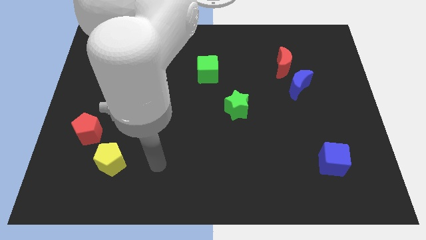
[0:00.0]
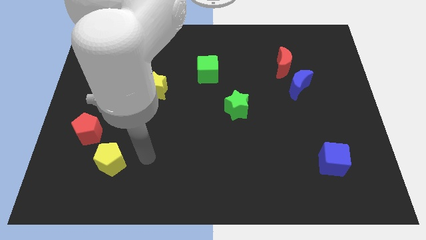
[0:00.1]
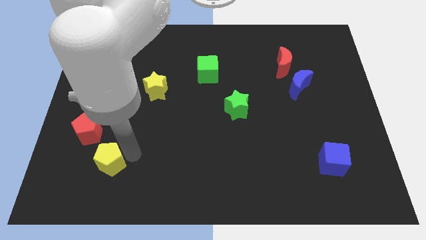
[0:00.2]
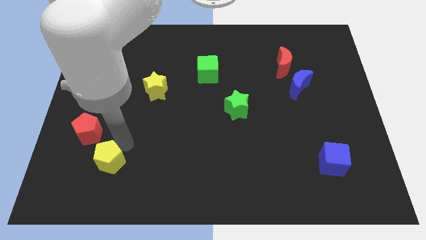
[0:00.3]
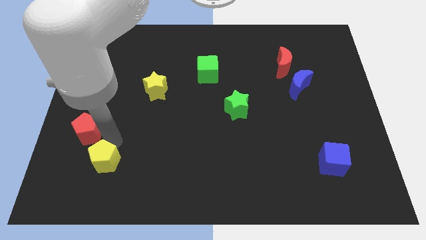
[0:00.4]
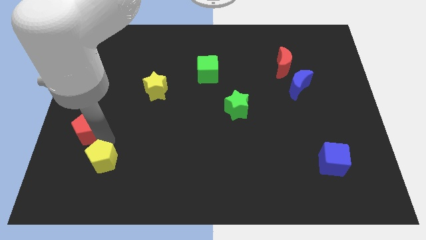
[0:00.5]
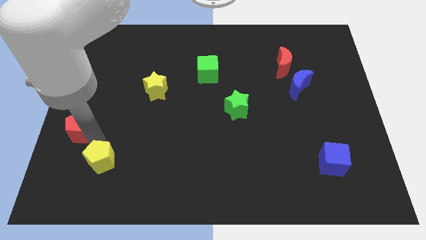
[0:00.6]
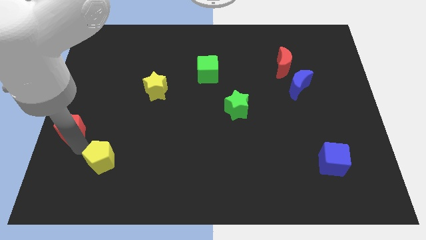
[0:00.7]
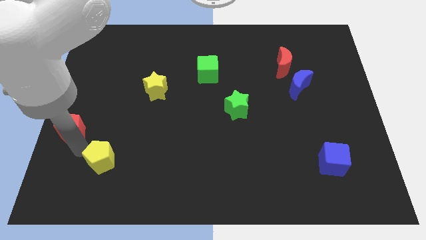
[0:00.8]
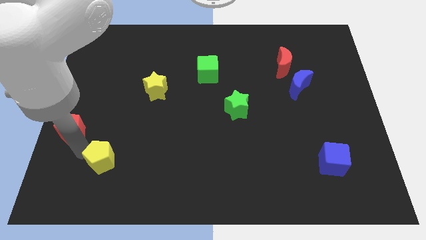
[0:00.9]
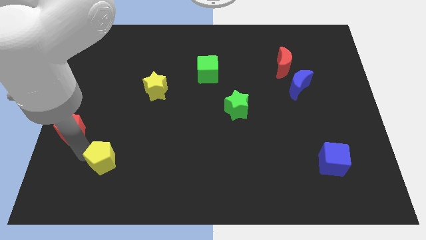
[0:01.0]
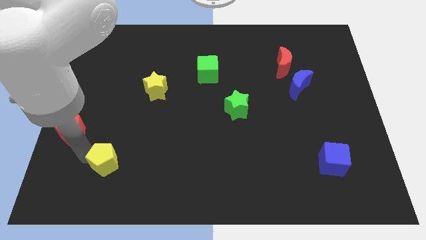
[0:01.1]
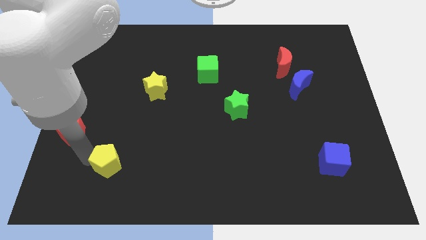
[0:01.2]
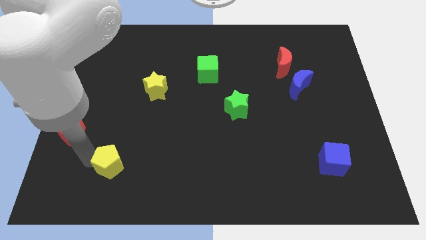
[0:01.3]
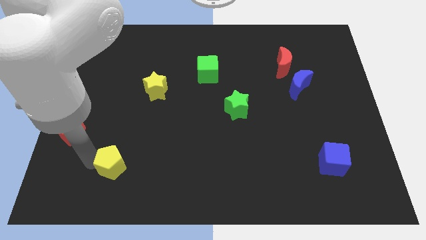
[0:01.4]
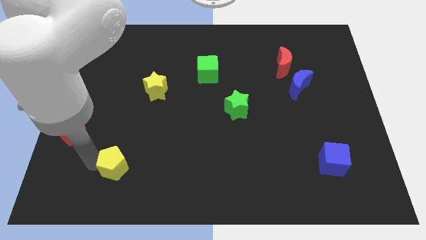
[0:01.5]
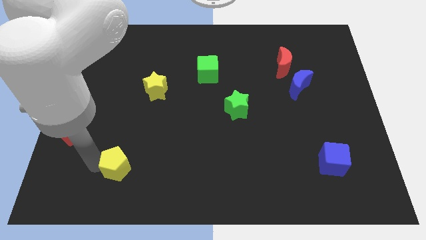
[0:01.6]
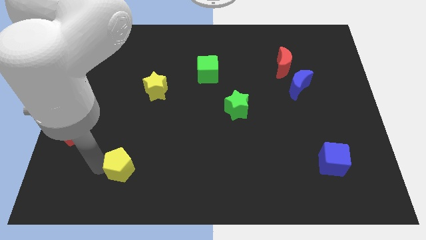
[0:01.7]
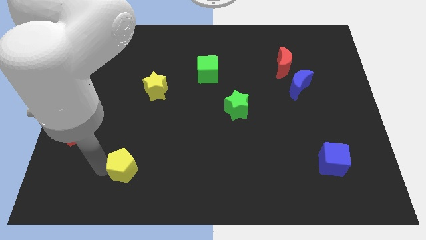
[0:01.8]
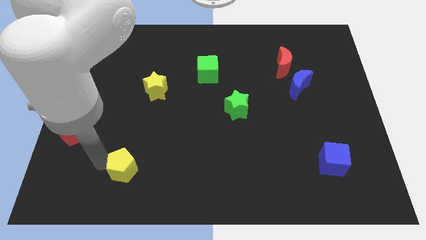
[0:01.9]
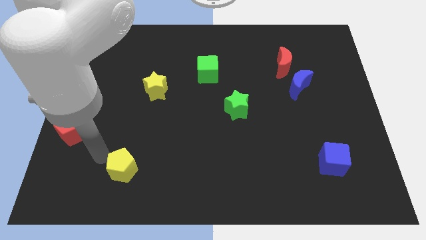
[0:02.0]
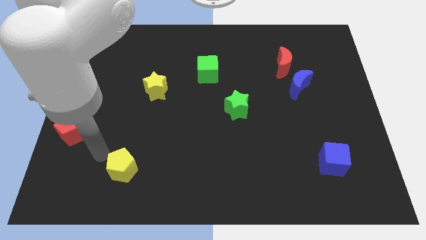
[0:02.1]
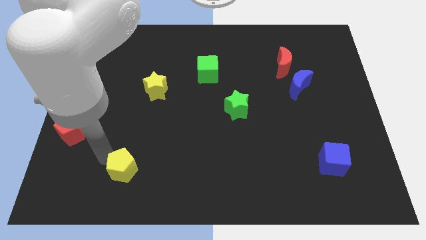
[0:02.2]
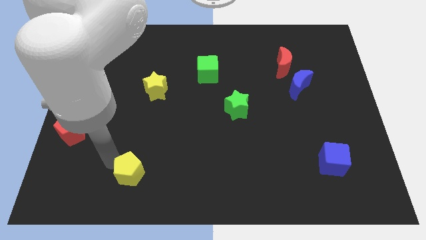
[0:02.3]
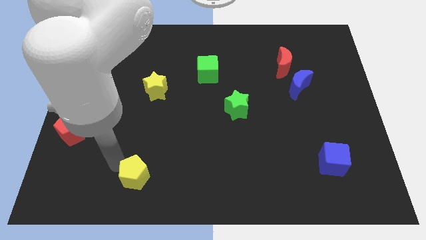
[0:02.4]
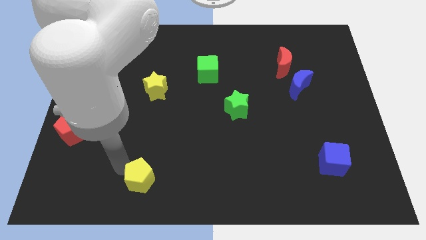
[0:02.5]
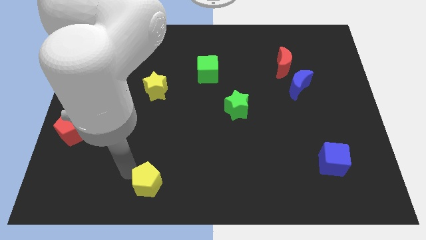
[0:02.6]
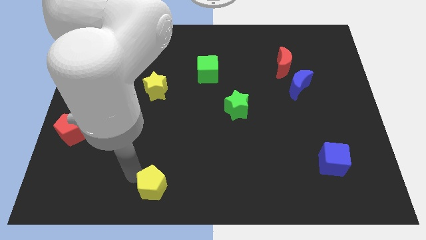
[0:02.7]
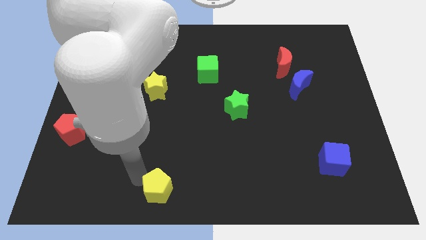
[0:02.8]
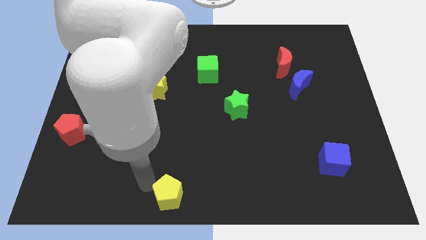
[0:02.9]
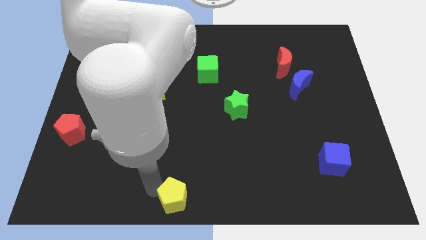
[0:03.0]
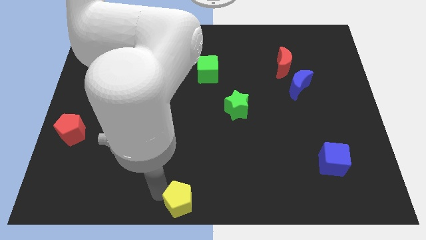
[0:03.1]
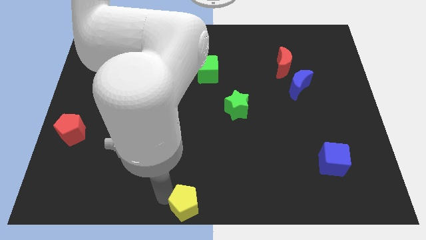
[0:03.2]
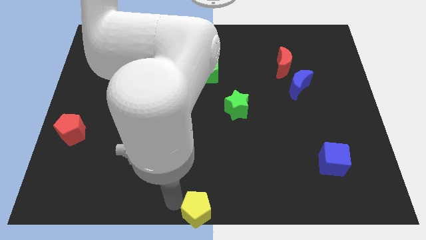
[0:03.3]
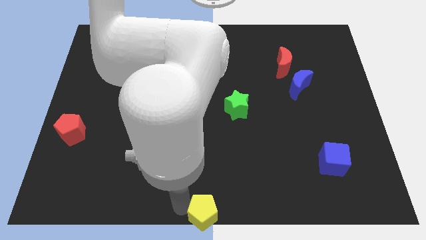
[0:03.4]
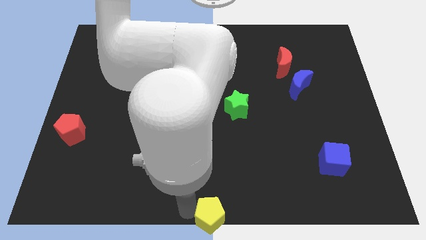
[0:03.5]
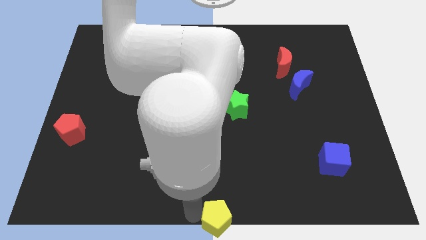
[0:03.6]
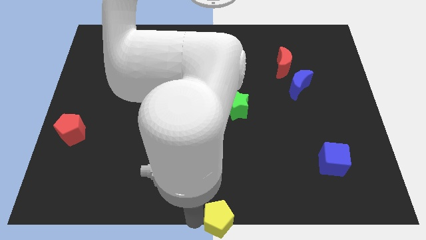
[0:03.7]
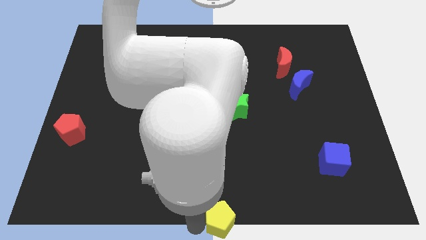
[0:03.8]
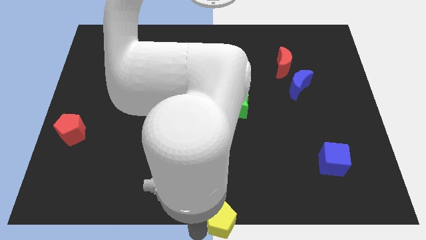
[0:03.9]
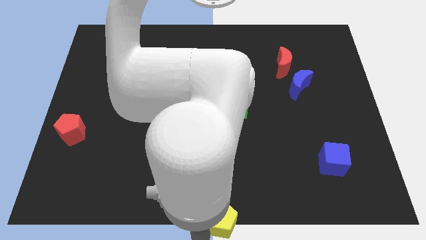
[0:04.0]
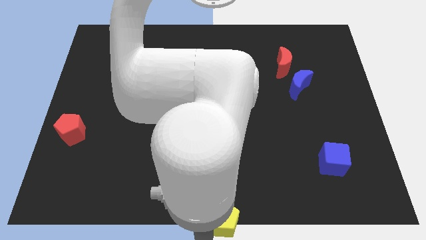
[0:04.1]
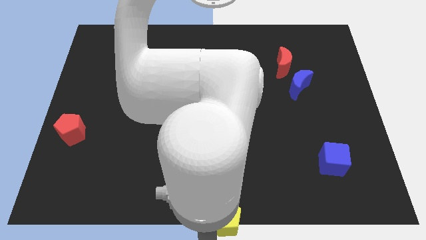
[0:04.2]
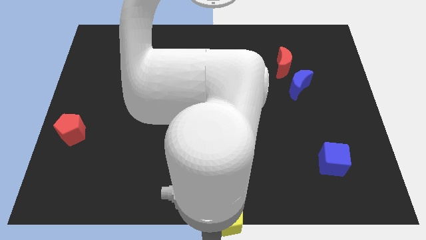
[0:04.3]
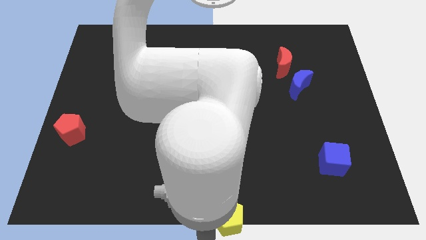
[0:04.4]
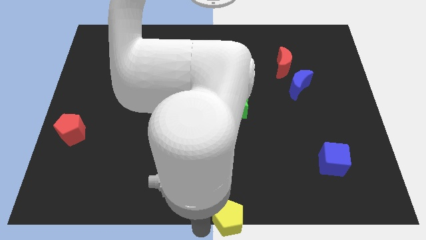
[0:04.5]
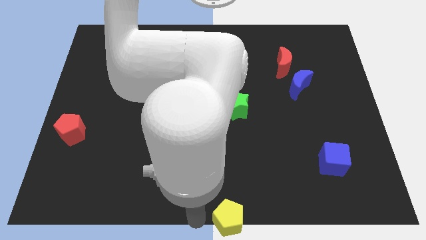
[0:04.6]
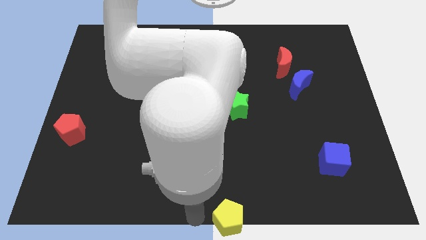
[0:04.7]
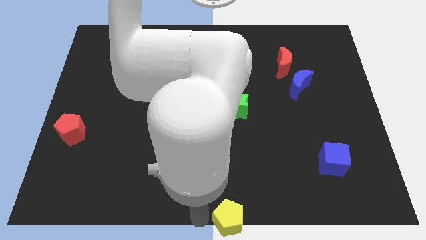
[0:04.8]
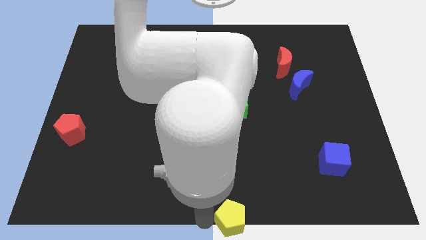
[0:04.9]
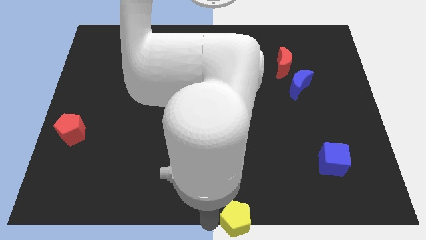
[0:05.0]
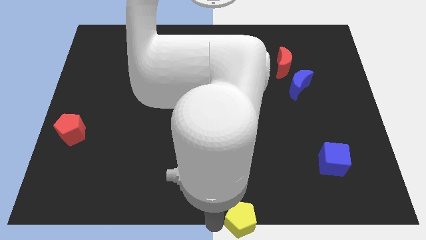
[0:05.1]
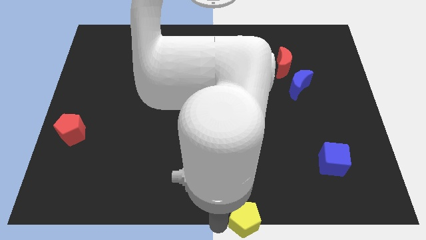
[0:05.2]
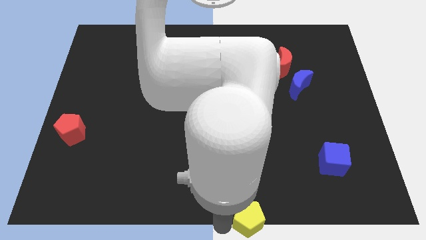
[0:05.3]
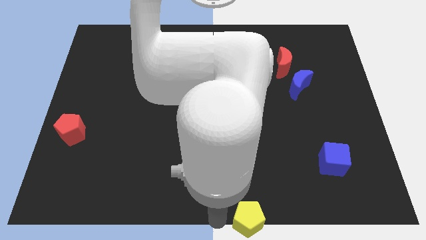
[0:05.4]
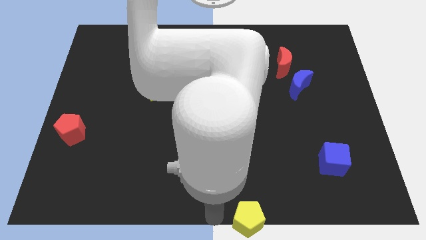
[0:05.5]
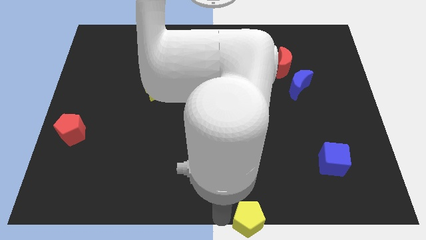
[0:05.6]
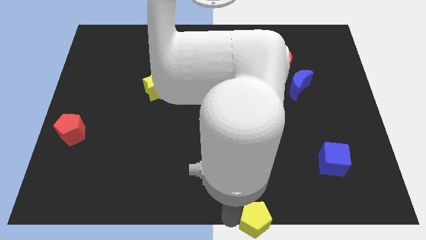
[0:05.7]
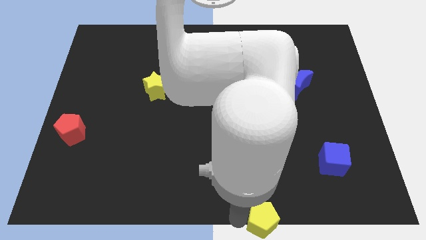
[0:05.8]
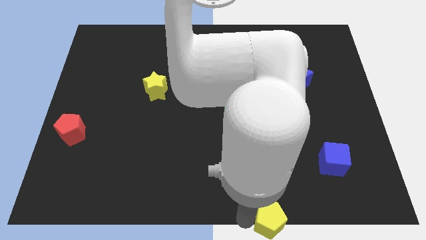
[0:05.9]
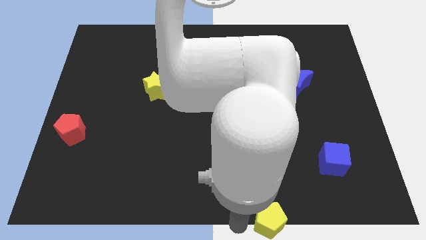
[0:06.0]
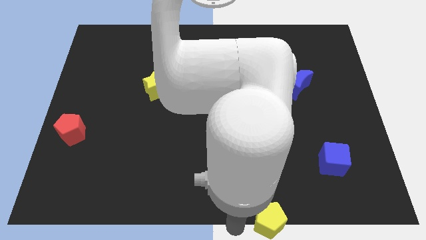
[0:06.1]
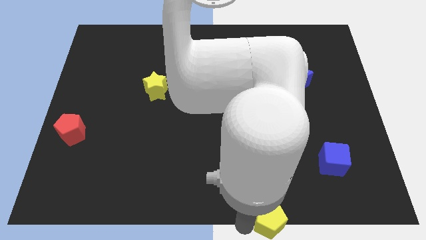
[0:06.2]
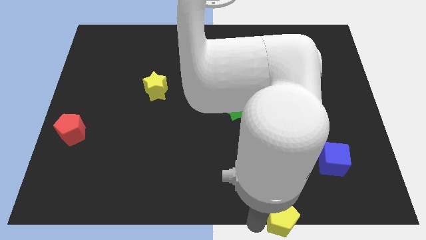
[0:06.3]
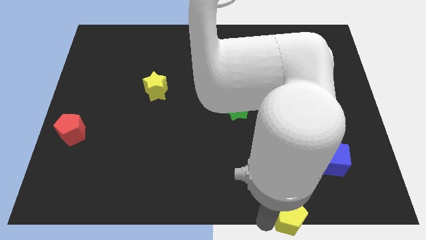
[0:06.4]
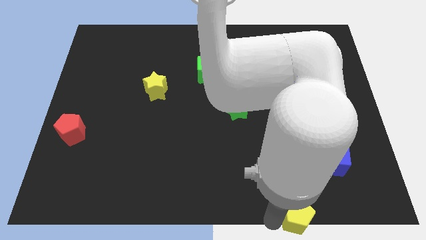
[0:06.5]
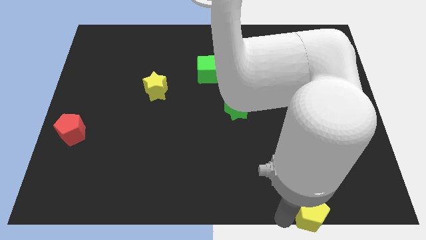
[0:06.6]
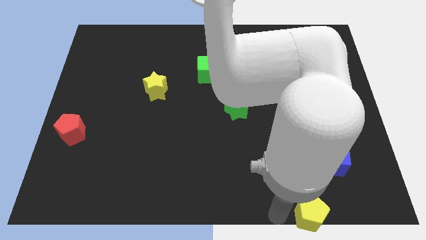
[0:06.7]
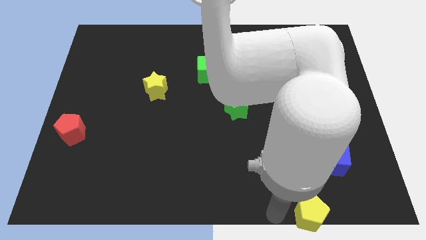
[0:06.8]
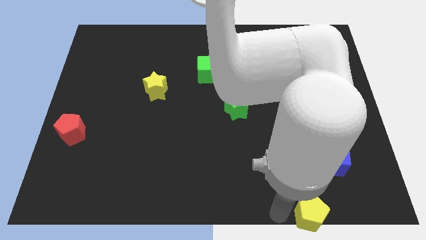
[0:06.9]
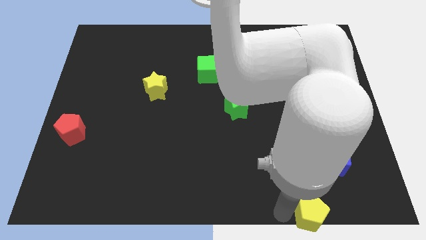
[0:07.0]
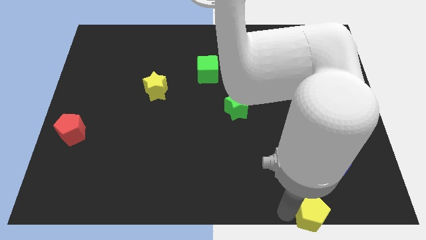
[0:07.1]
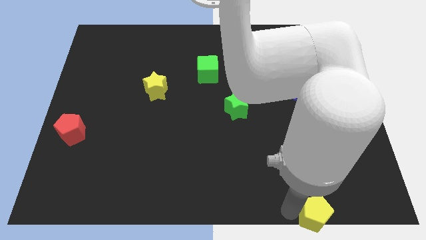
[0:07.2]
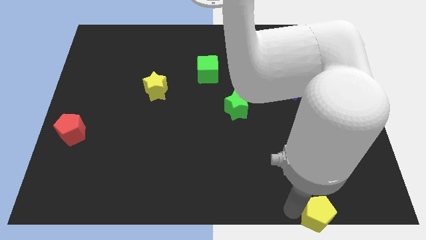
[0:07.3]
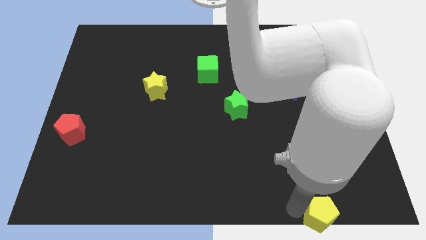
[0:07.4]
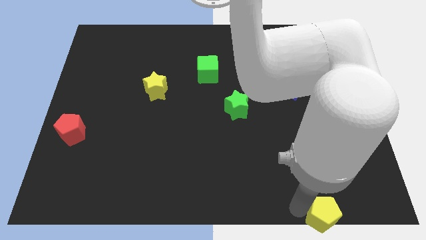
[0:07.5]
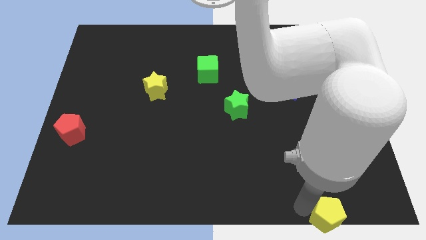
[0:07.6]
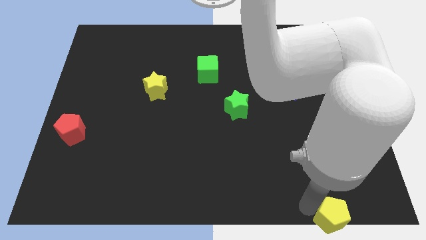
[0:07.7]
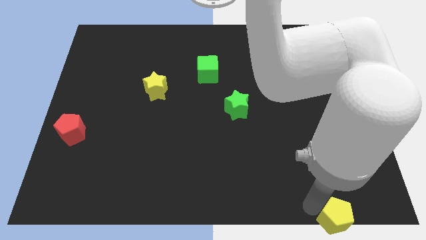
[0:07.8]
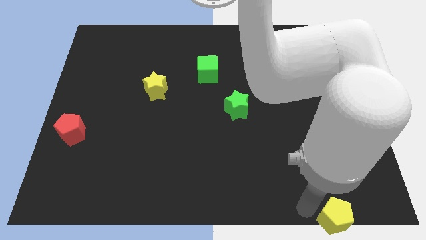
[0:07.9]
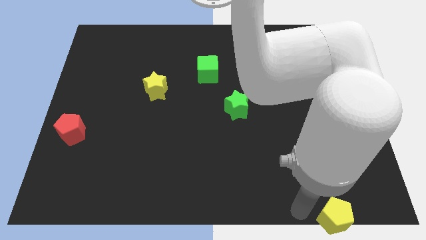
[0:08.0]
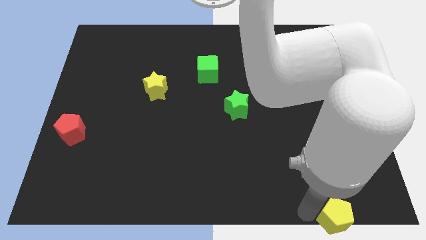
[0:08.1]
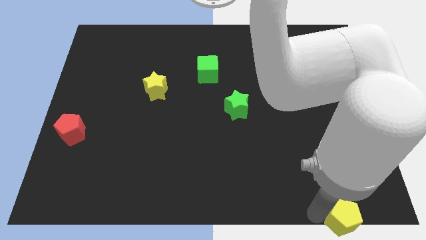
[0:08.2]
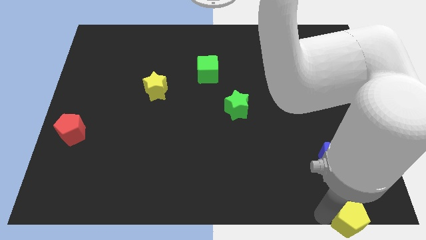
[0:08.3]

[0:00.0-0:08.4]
slide the yellow pentagon to the bottom right
